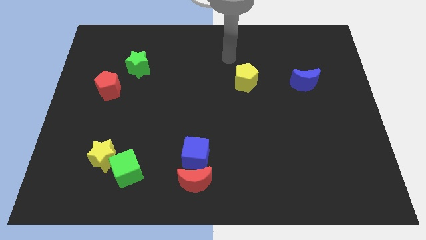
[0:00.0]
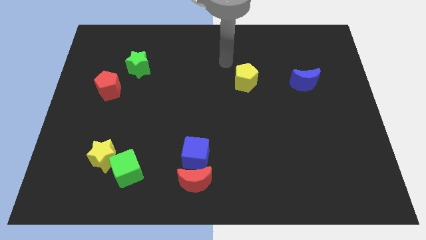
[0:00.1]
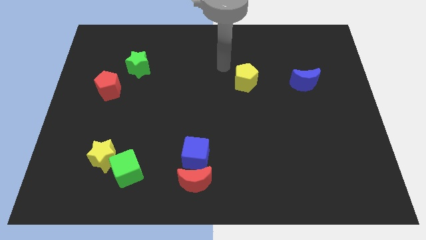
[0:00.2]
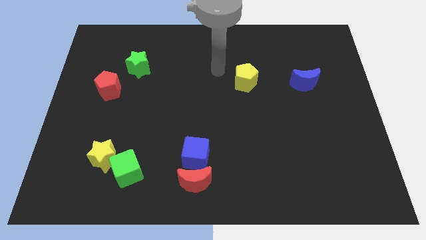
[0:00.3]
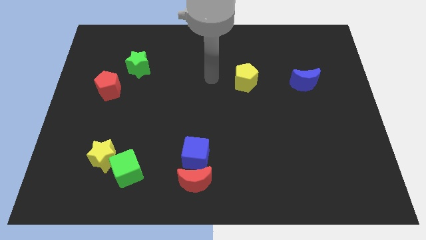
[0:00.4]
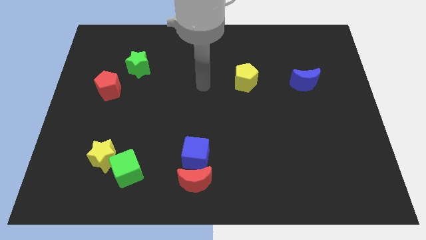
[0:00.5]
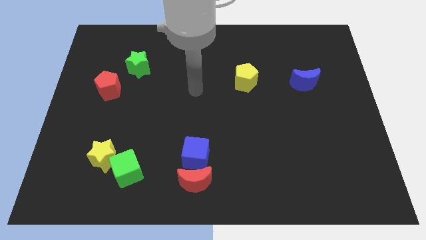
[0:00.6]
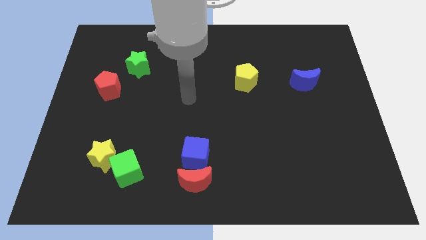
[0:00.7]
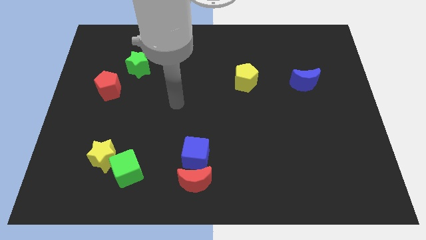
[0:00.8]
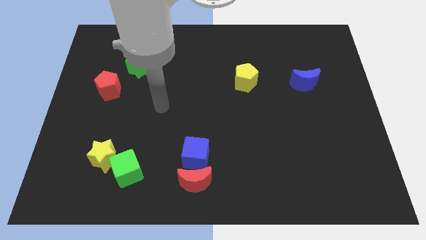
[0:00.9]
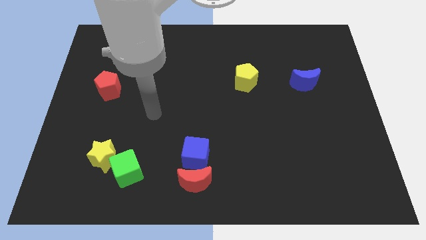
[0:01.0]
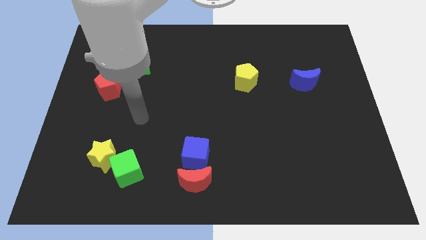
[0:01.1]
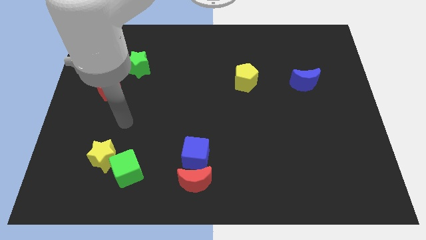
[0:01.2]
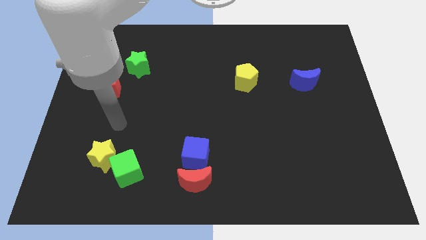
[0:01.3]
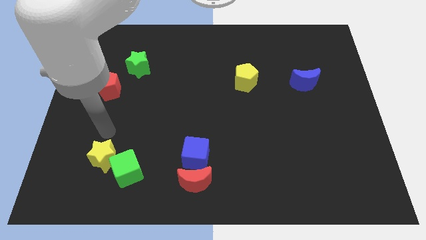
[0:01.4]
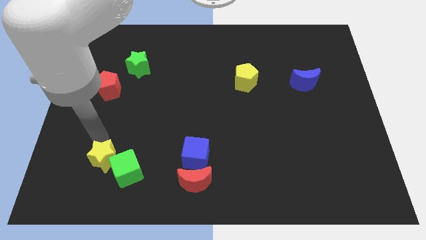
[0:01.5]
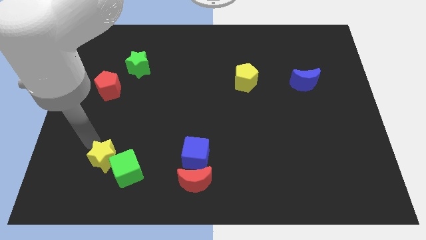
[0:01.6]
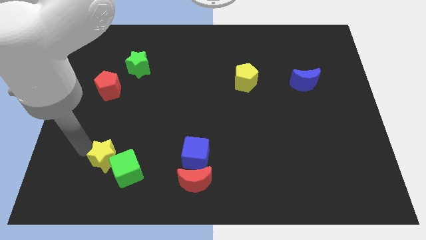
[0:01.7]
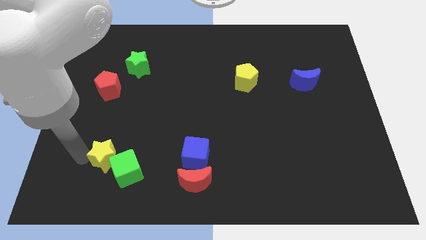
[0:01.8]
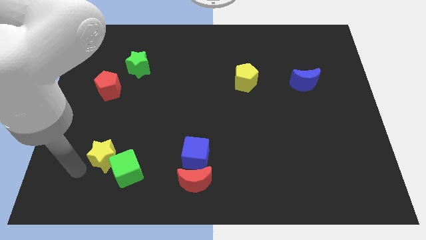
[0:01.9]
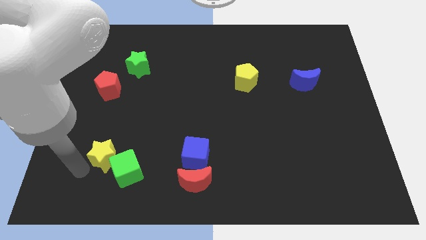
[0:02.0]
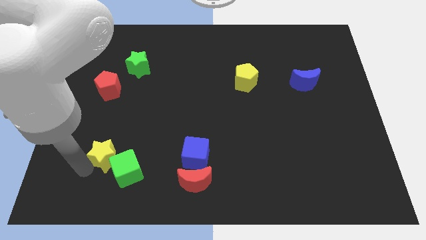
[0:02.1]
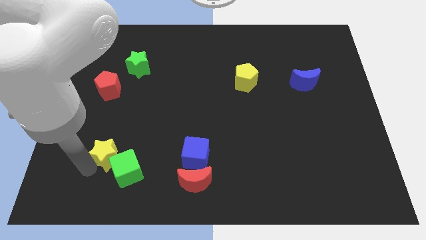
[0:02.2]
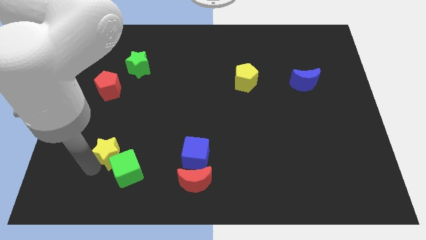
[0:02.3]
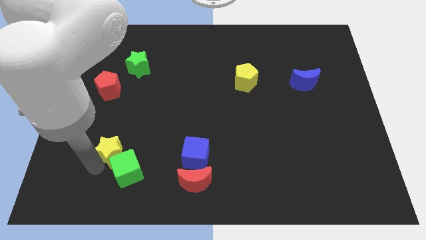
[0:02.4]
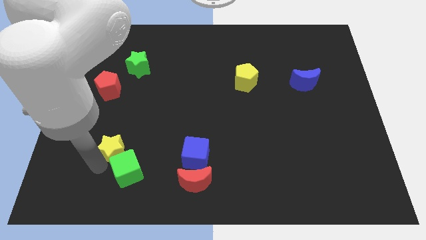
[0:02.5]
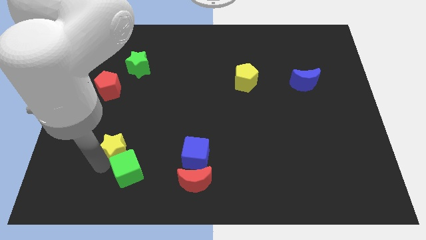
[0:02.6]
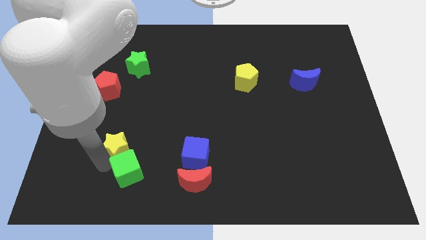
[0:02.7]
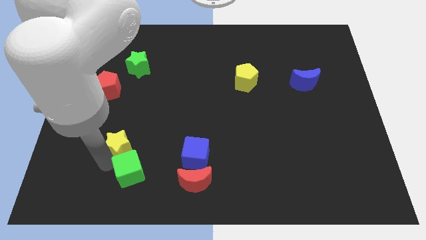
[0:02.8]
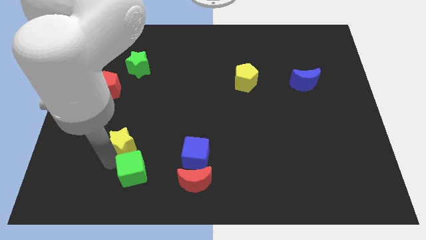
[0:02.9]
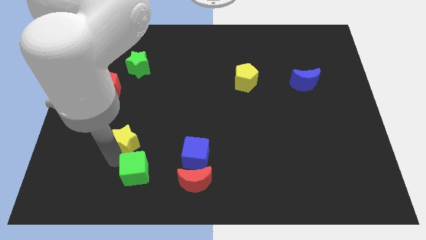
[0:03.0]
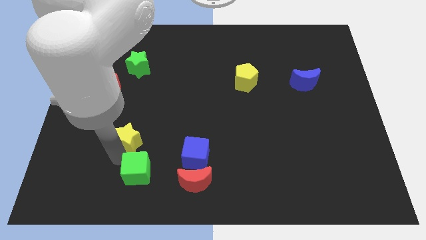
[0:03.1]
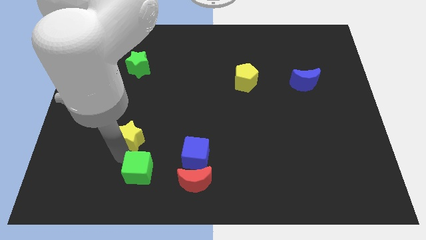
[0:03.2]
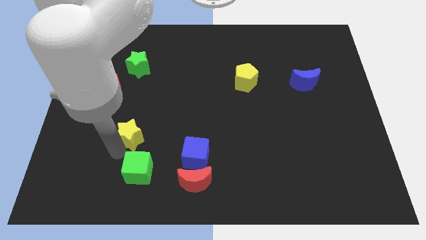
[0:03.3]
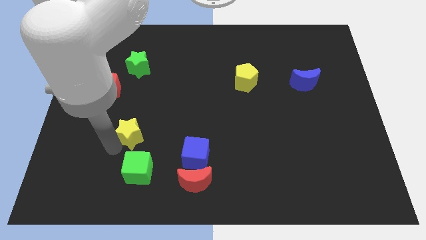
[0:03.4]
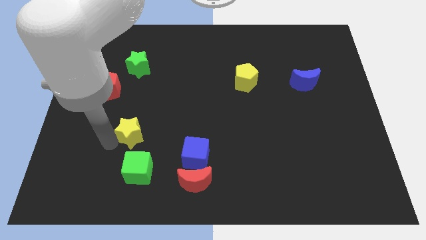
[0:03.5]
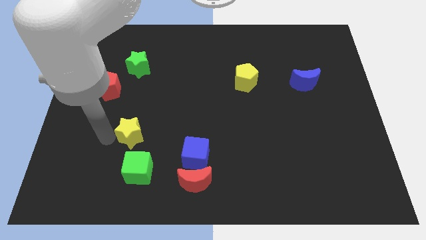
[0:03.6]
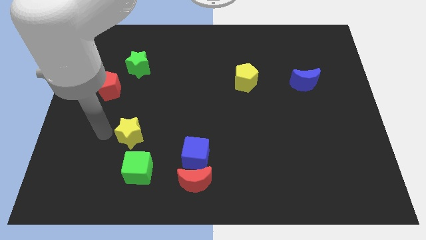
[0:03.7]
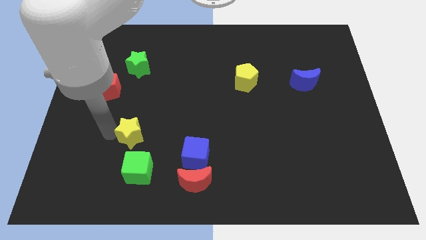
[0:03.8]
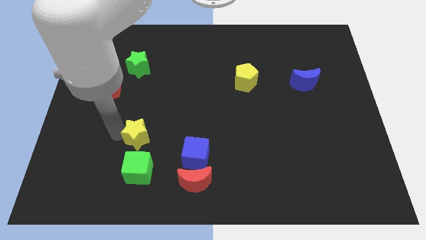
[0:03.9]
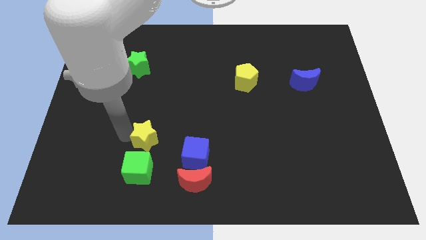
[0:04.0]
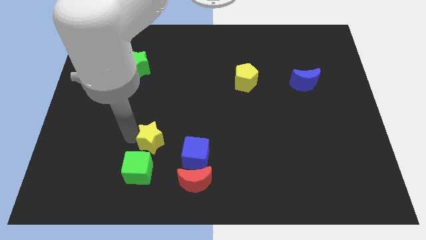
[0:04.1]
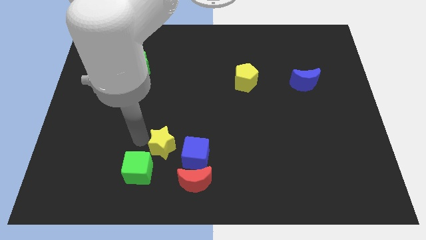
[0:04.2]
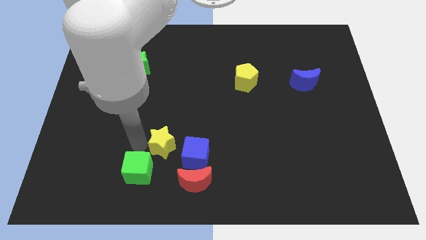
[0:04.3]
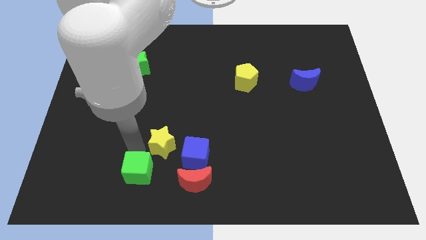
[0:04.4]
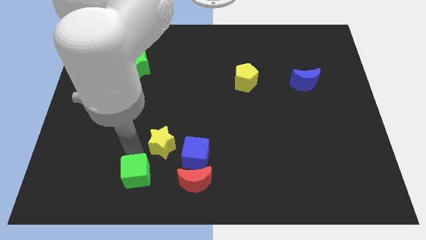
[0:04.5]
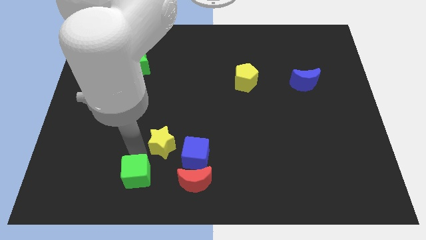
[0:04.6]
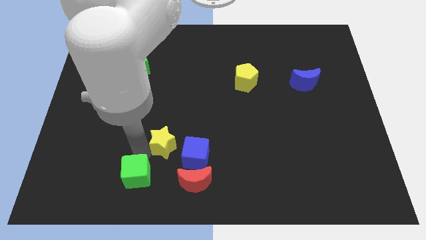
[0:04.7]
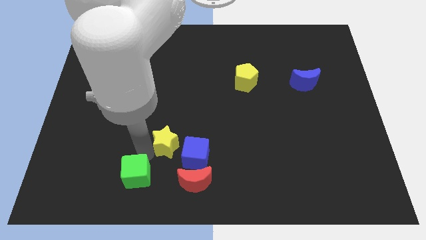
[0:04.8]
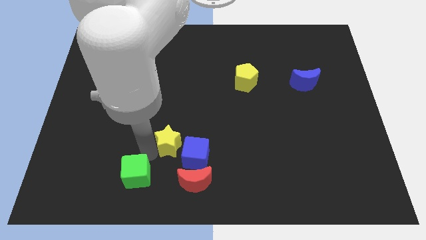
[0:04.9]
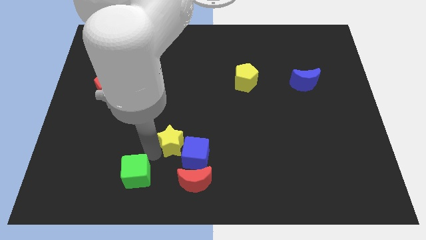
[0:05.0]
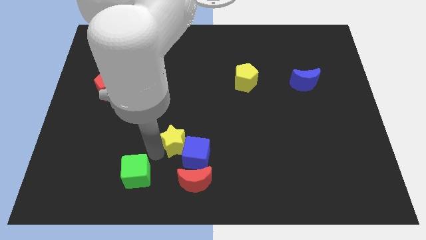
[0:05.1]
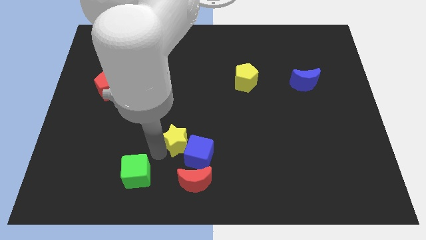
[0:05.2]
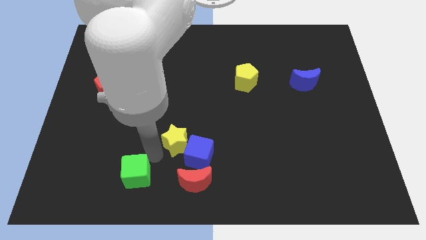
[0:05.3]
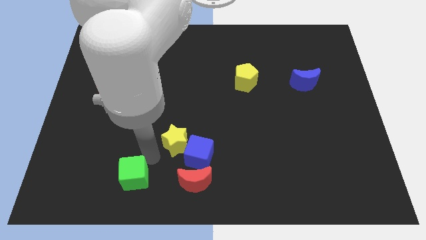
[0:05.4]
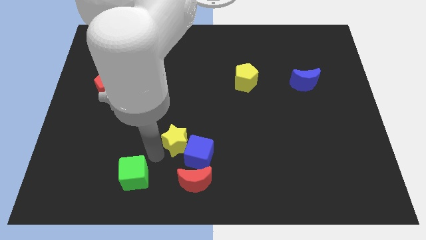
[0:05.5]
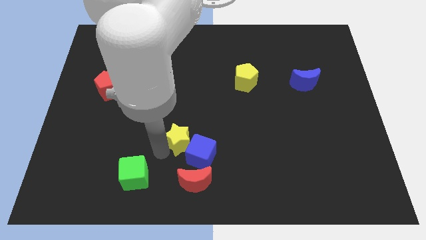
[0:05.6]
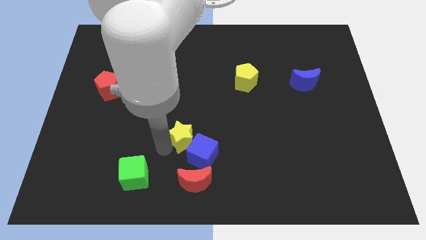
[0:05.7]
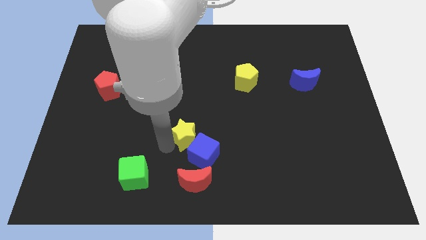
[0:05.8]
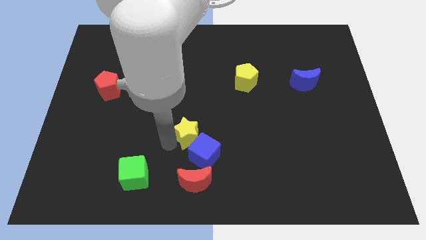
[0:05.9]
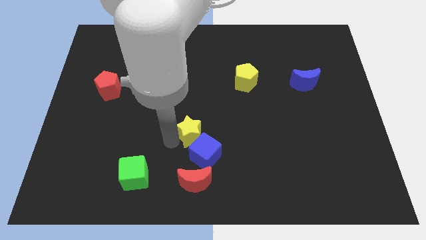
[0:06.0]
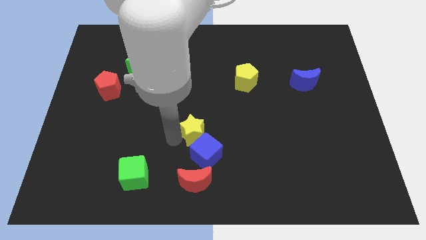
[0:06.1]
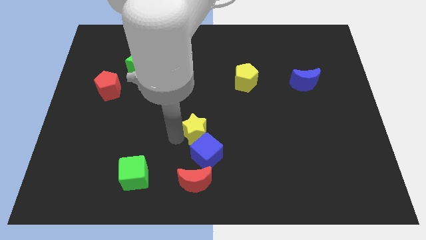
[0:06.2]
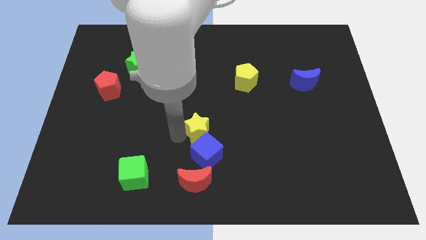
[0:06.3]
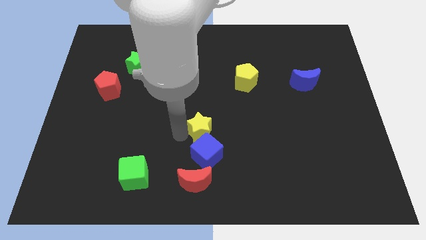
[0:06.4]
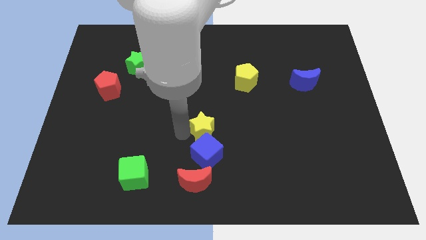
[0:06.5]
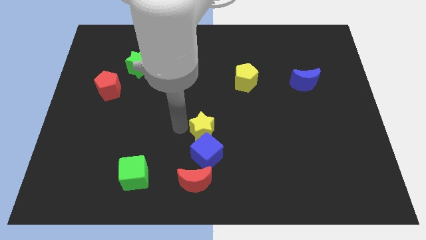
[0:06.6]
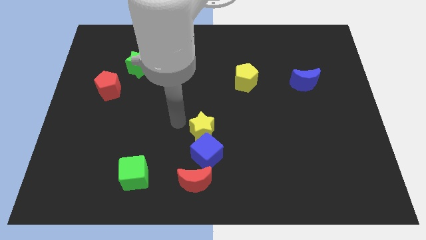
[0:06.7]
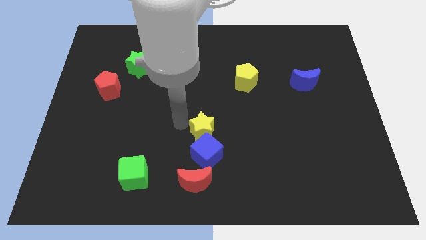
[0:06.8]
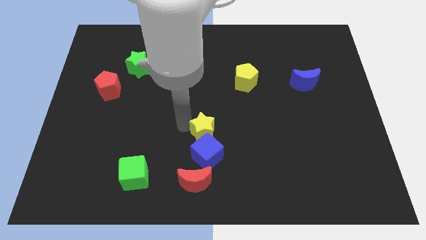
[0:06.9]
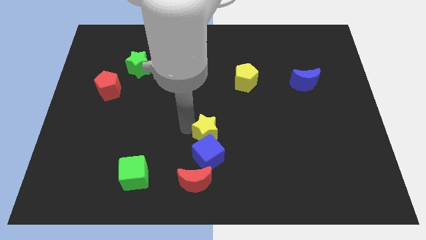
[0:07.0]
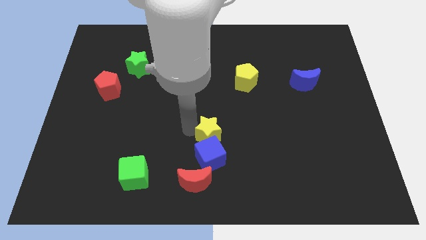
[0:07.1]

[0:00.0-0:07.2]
slide the yellow star right

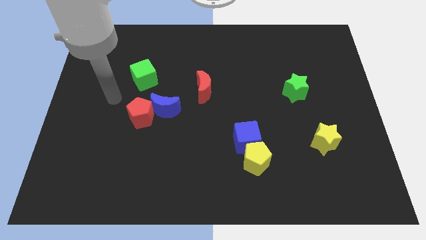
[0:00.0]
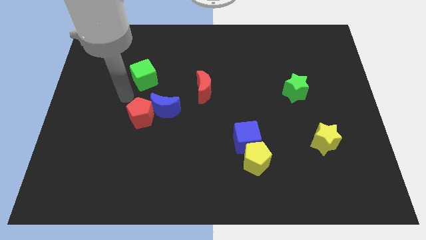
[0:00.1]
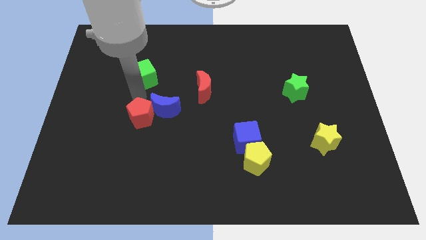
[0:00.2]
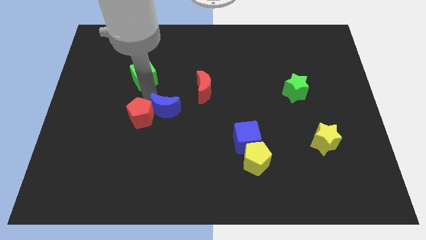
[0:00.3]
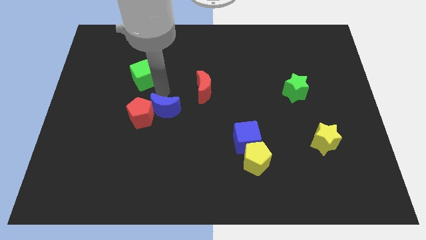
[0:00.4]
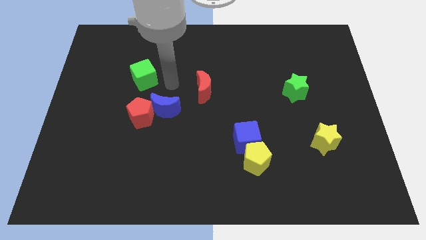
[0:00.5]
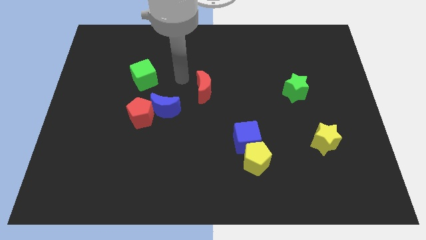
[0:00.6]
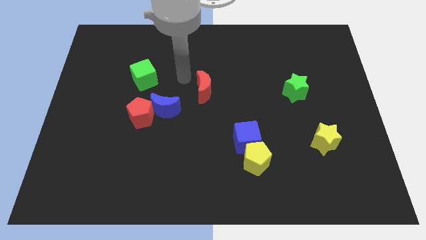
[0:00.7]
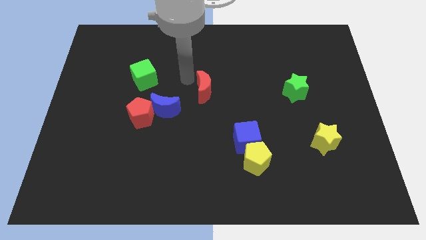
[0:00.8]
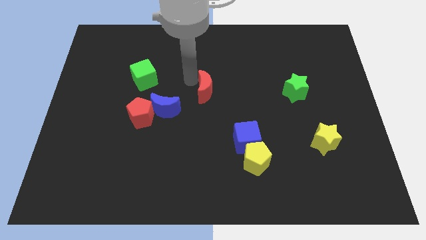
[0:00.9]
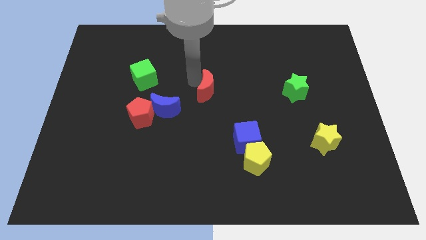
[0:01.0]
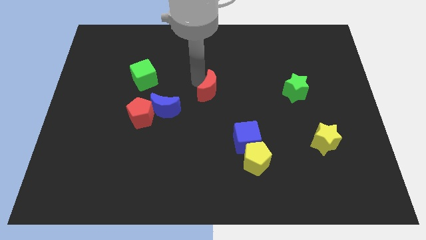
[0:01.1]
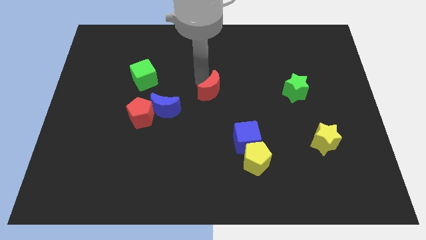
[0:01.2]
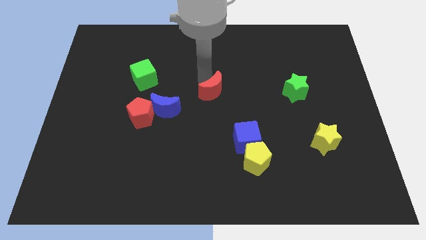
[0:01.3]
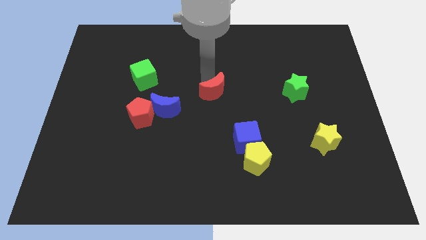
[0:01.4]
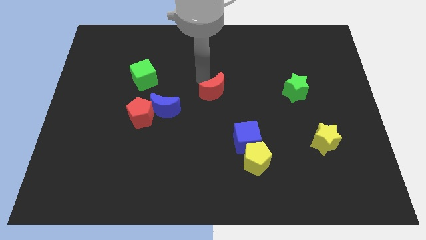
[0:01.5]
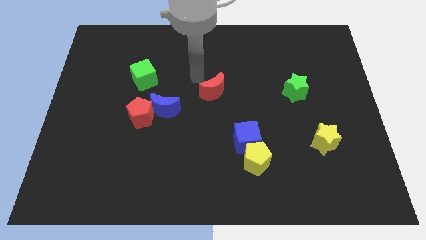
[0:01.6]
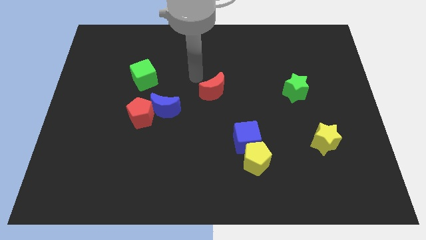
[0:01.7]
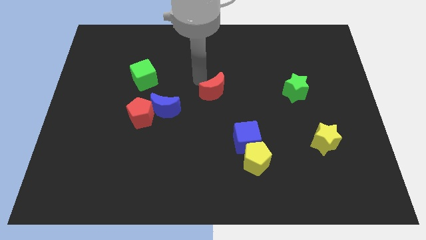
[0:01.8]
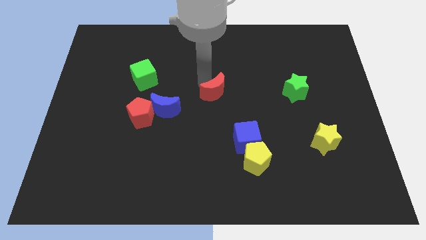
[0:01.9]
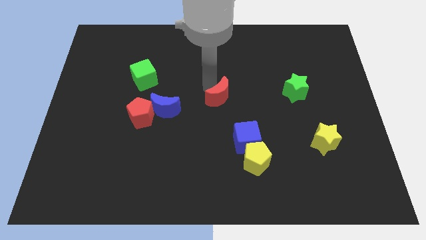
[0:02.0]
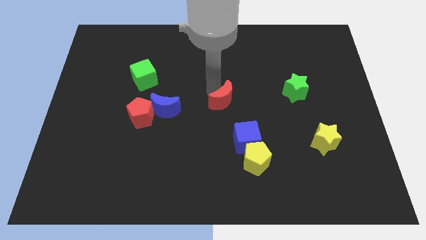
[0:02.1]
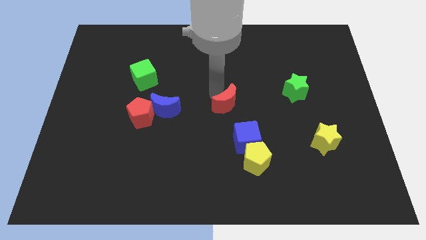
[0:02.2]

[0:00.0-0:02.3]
slightly slide the red moon down and right
